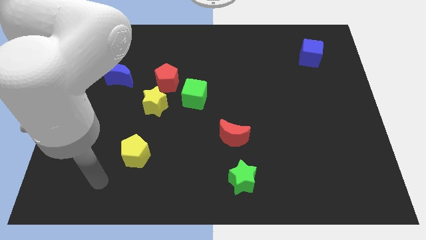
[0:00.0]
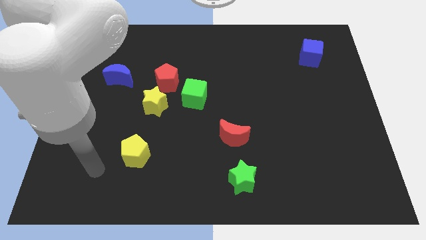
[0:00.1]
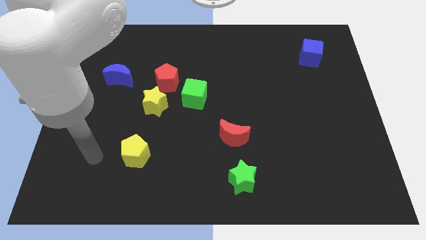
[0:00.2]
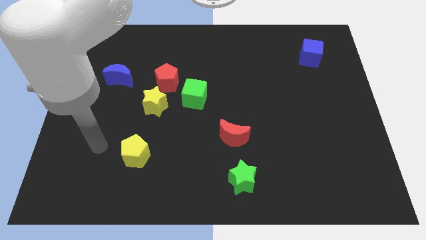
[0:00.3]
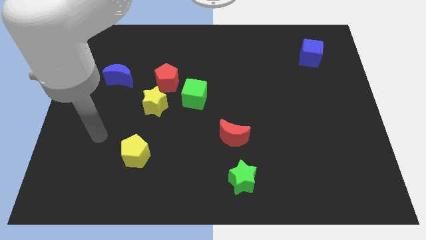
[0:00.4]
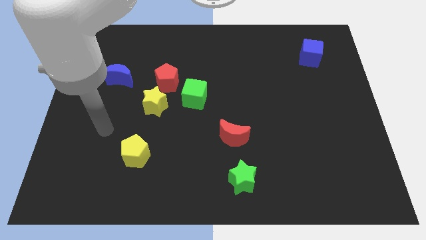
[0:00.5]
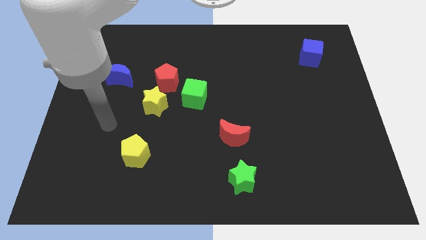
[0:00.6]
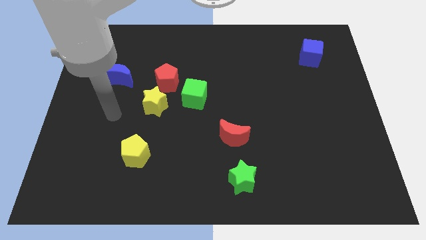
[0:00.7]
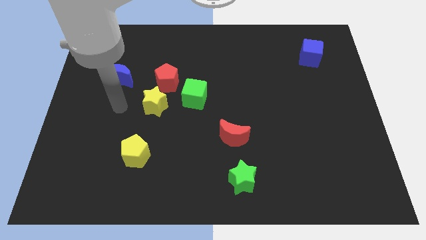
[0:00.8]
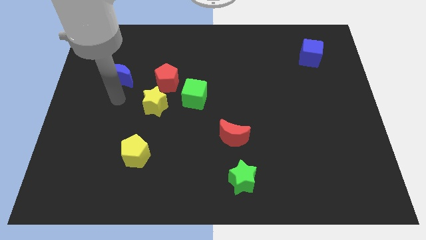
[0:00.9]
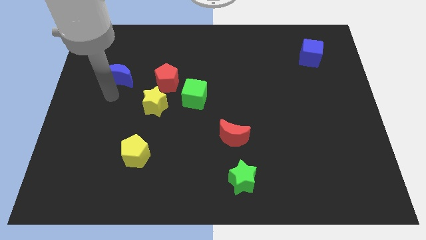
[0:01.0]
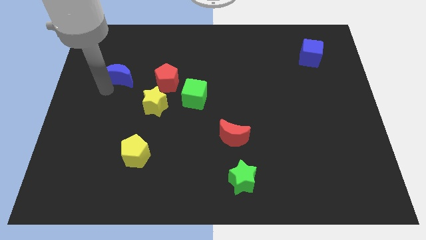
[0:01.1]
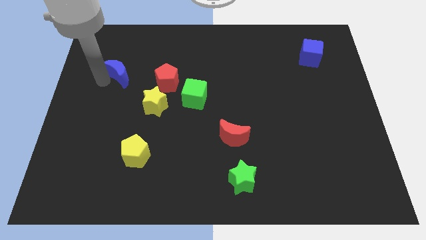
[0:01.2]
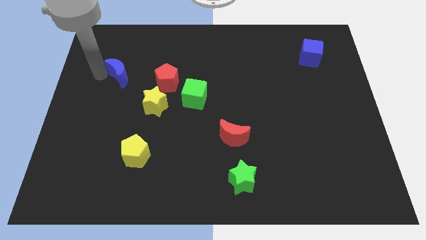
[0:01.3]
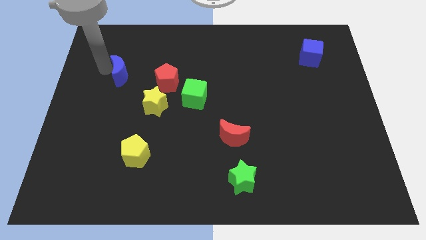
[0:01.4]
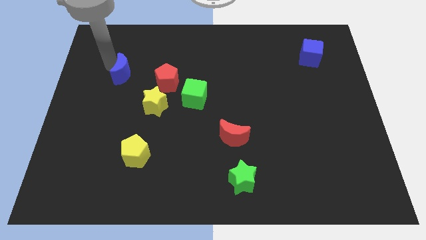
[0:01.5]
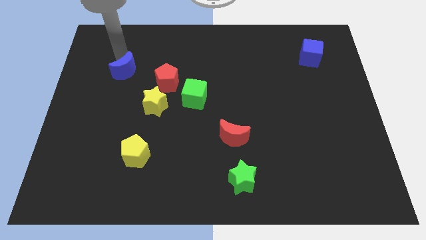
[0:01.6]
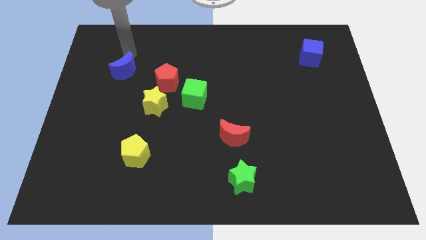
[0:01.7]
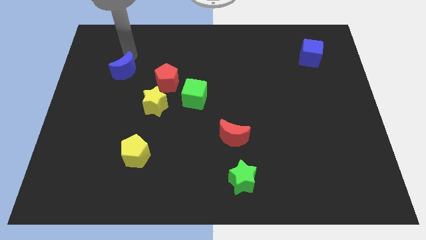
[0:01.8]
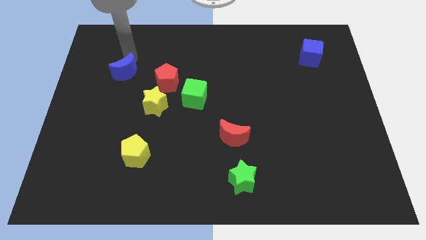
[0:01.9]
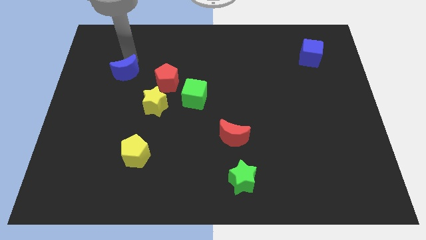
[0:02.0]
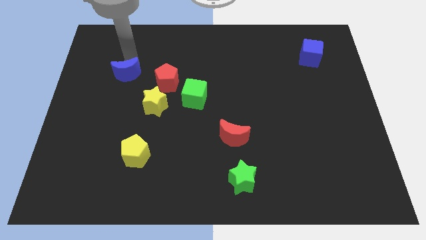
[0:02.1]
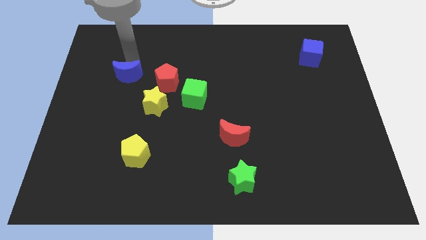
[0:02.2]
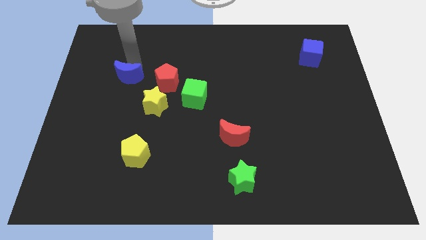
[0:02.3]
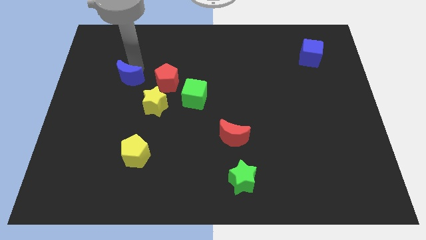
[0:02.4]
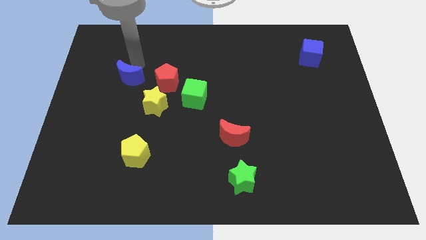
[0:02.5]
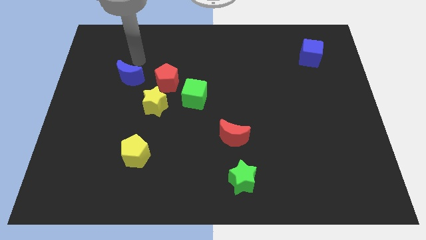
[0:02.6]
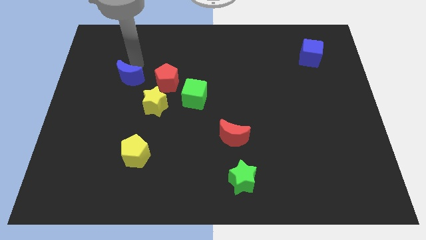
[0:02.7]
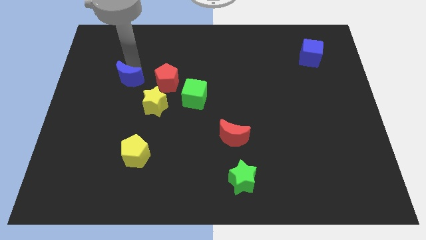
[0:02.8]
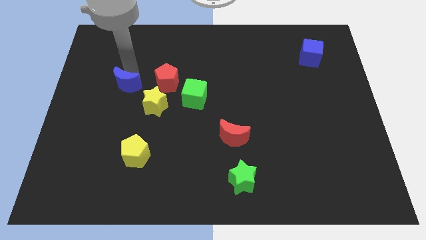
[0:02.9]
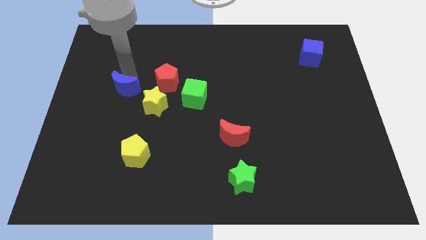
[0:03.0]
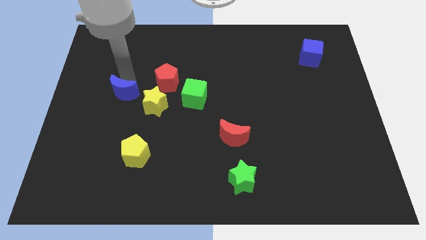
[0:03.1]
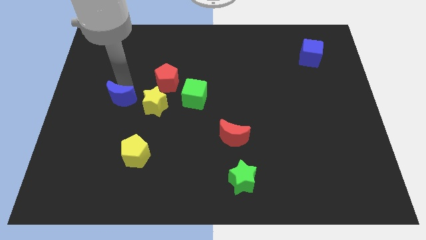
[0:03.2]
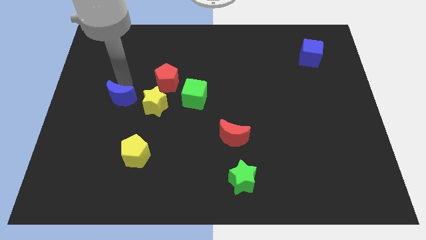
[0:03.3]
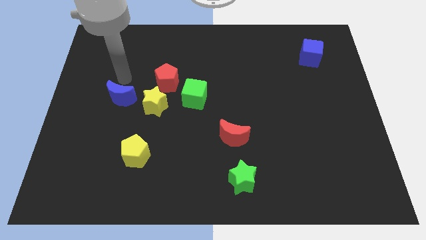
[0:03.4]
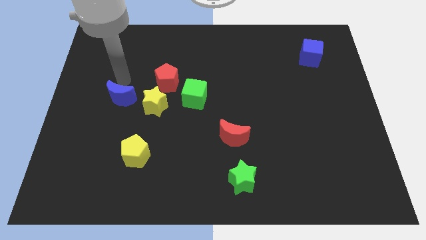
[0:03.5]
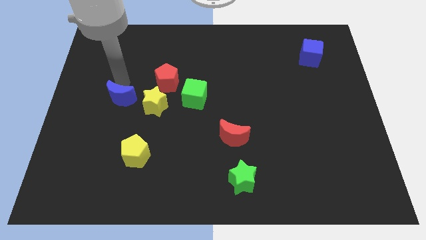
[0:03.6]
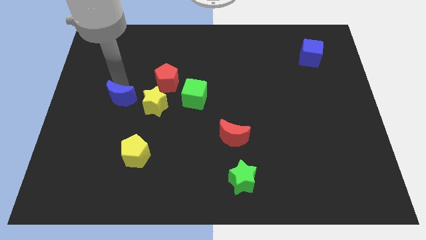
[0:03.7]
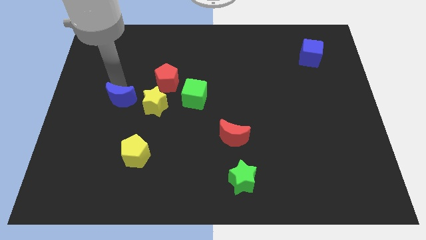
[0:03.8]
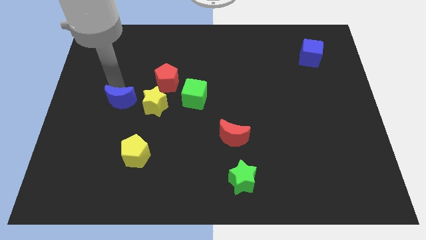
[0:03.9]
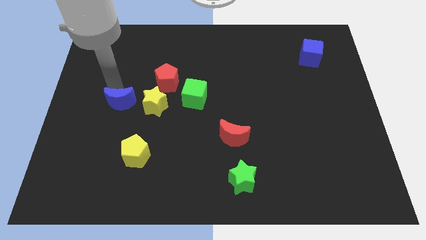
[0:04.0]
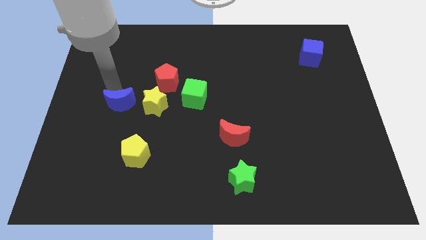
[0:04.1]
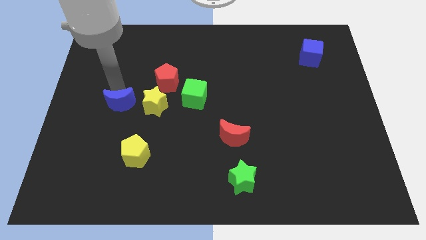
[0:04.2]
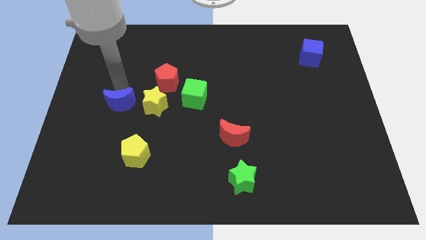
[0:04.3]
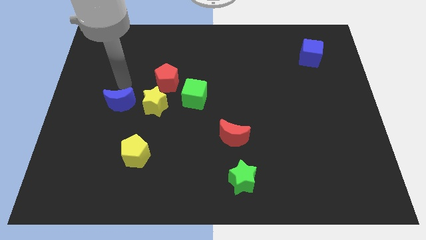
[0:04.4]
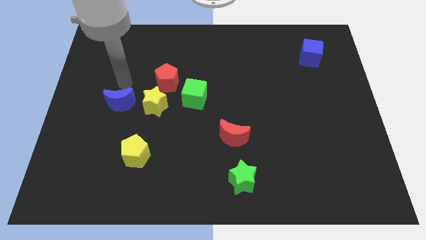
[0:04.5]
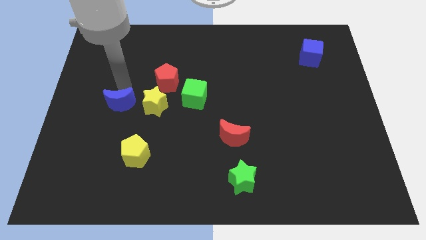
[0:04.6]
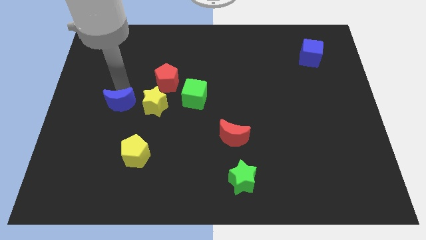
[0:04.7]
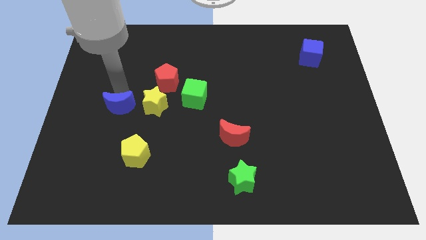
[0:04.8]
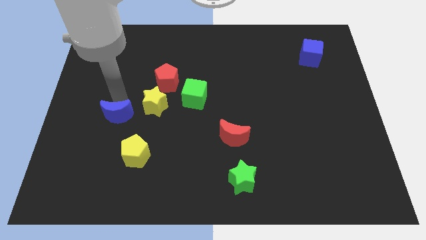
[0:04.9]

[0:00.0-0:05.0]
move the blue moon diagonally up and to the left of the yellow pentagon

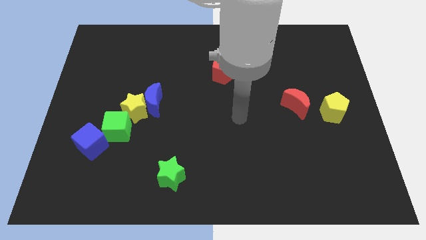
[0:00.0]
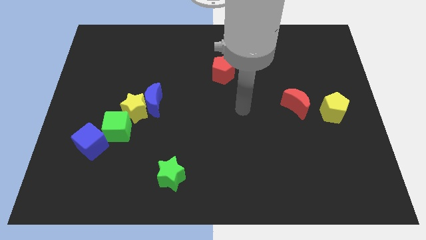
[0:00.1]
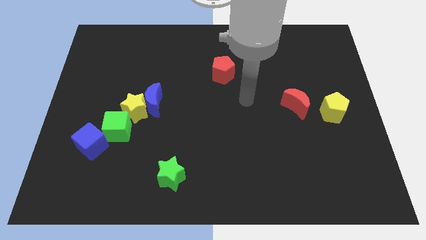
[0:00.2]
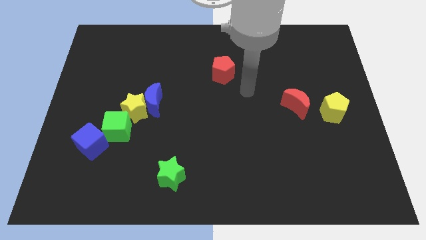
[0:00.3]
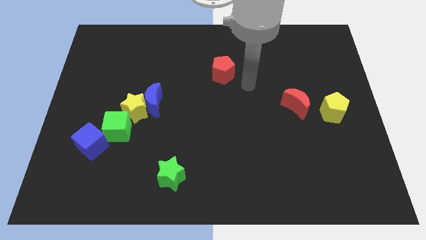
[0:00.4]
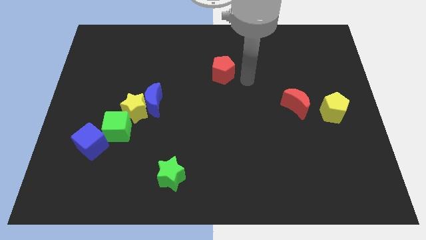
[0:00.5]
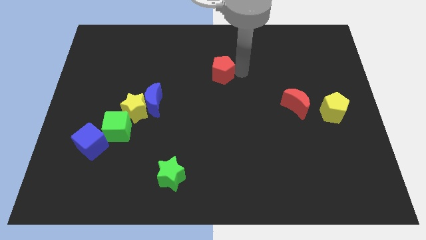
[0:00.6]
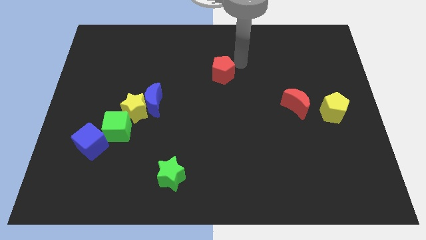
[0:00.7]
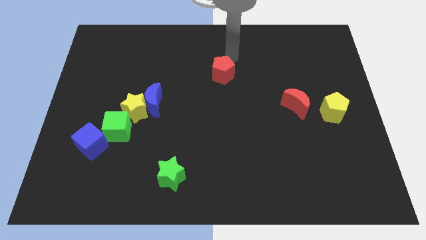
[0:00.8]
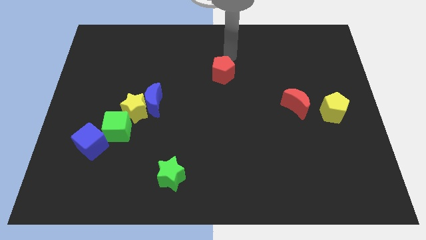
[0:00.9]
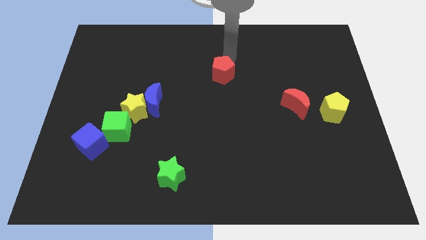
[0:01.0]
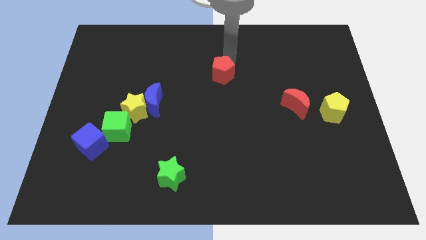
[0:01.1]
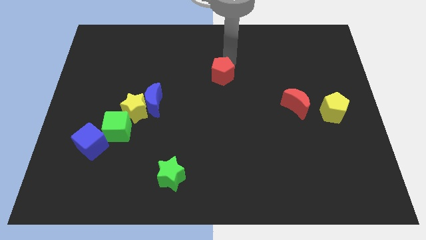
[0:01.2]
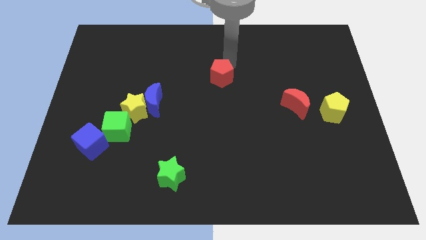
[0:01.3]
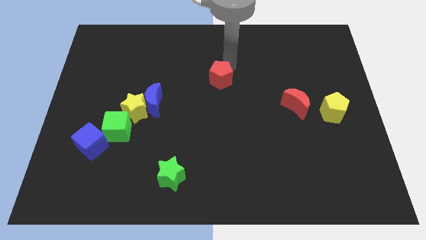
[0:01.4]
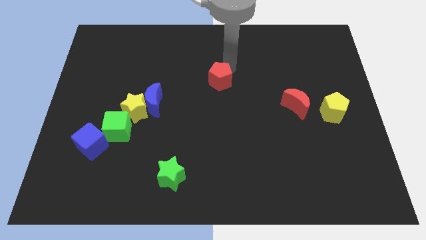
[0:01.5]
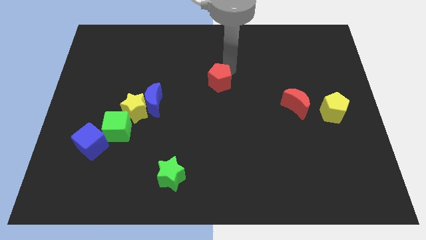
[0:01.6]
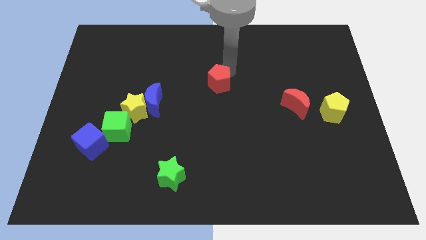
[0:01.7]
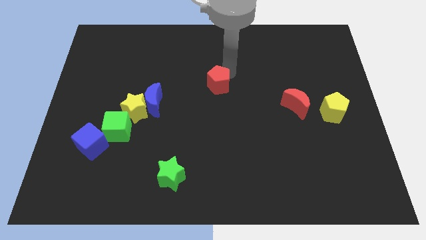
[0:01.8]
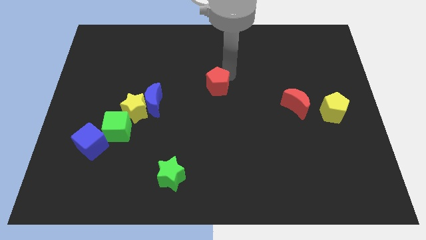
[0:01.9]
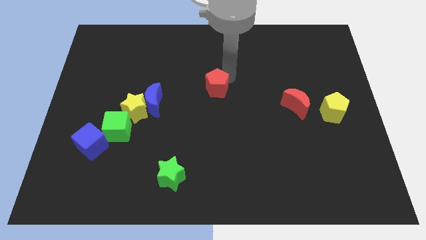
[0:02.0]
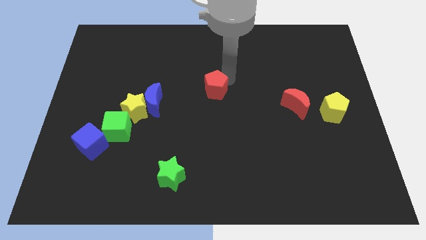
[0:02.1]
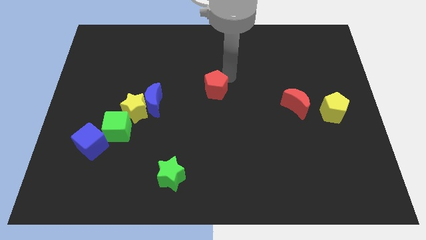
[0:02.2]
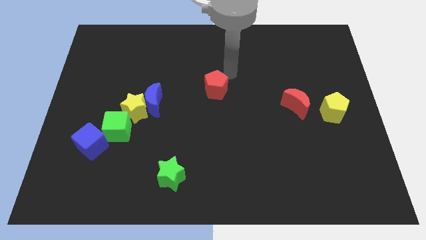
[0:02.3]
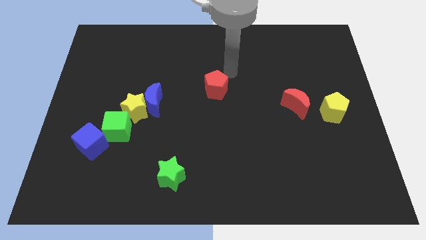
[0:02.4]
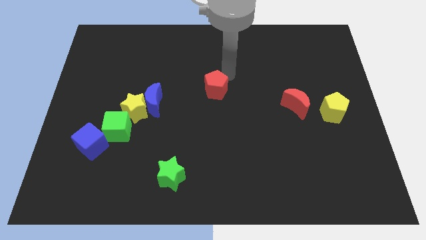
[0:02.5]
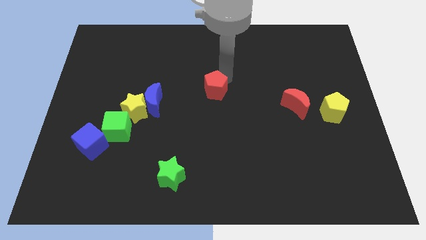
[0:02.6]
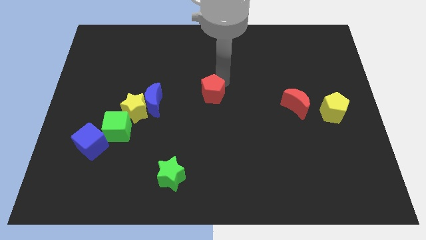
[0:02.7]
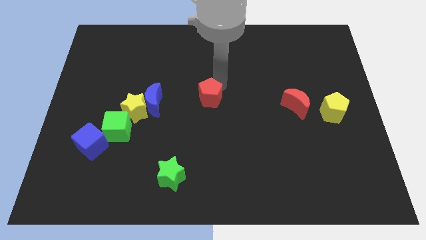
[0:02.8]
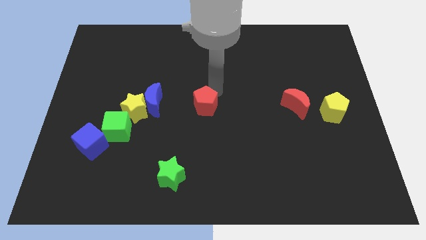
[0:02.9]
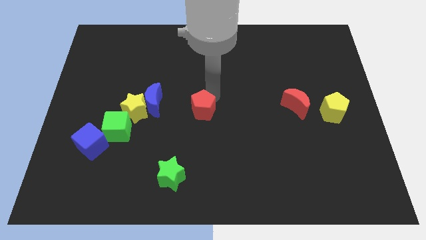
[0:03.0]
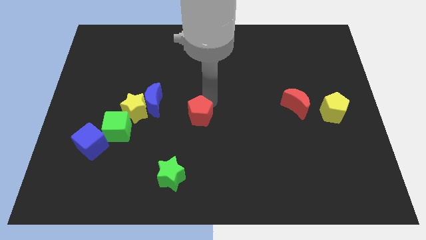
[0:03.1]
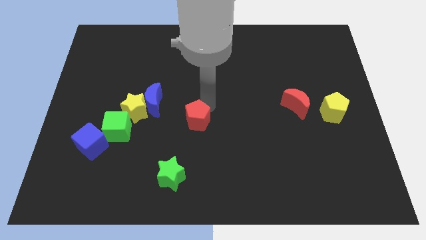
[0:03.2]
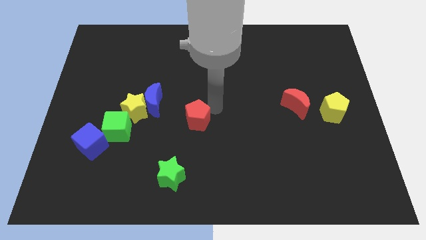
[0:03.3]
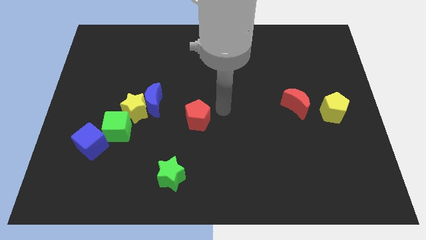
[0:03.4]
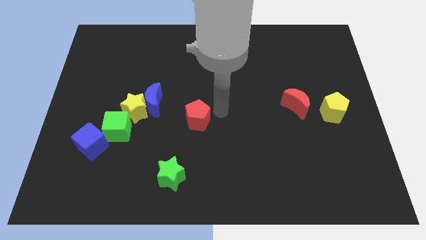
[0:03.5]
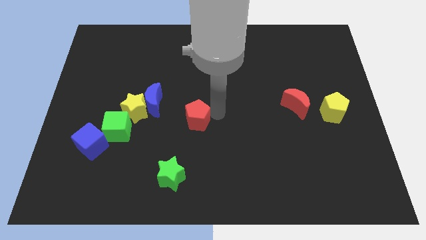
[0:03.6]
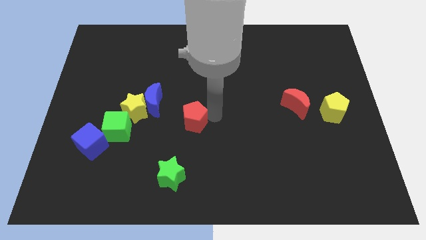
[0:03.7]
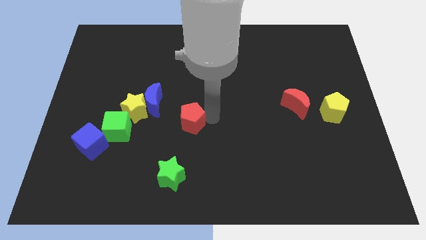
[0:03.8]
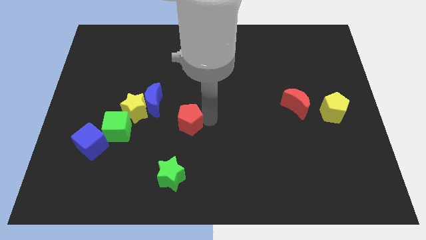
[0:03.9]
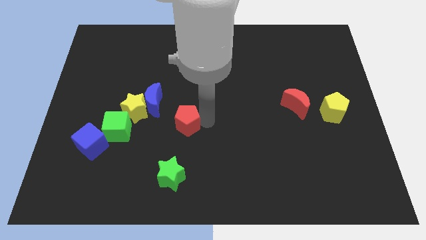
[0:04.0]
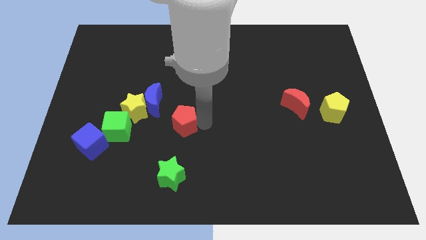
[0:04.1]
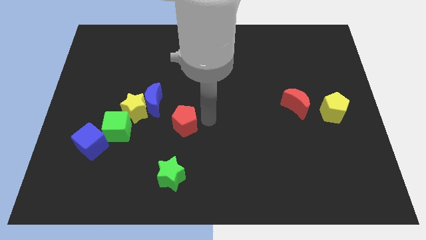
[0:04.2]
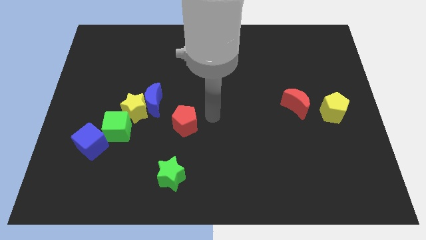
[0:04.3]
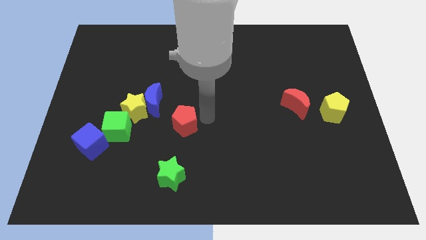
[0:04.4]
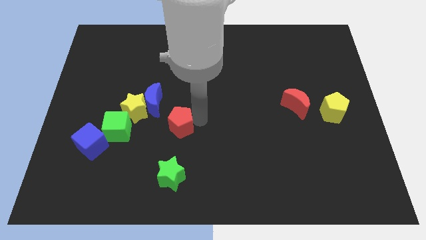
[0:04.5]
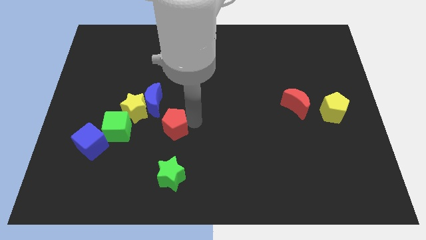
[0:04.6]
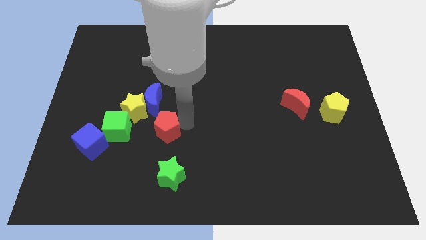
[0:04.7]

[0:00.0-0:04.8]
move the red pentagon below the blue moon
